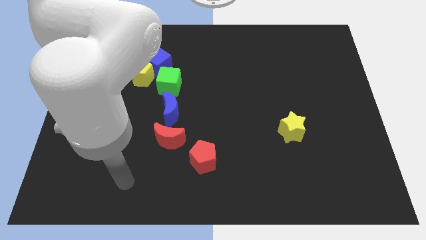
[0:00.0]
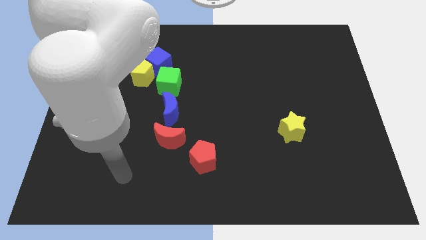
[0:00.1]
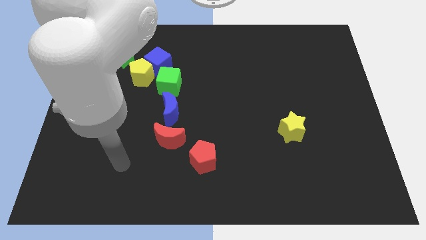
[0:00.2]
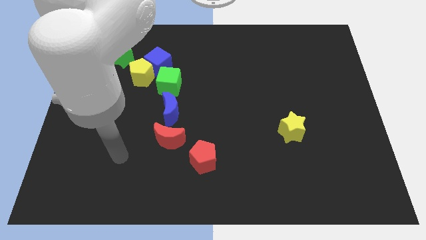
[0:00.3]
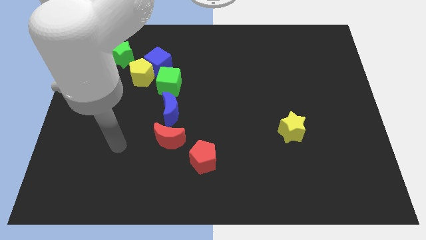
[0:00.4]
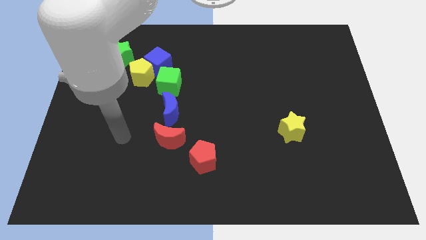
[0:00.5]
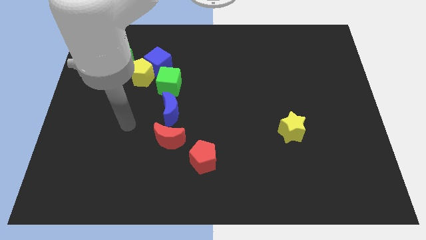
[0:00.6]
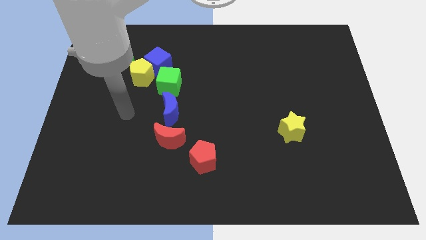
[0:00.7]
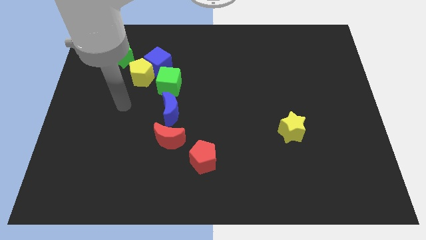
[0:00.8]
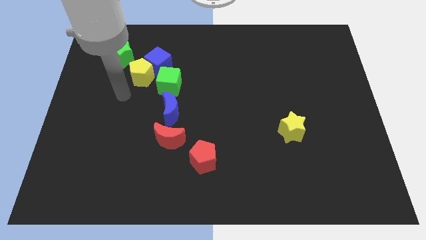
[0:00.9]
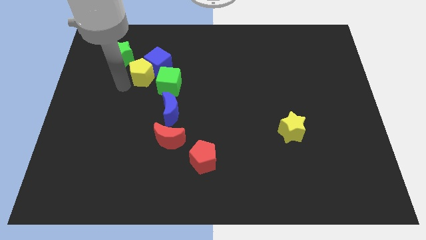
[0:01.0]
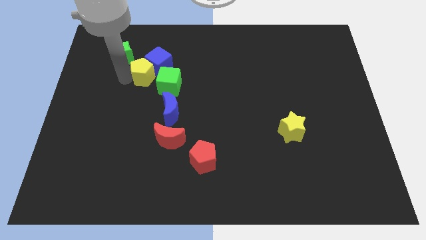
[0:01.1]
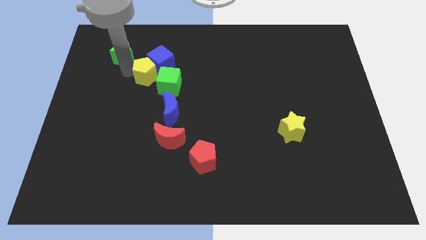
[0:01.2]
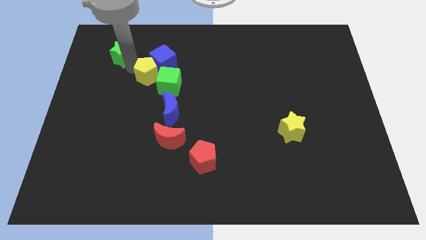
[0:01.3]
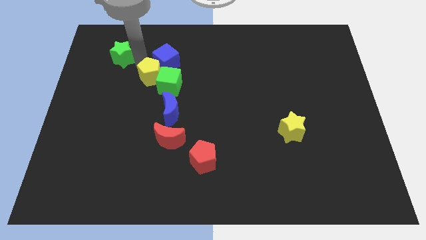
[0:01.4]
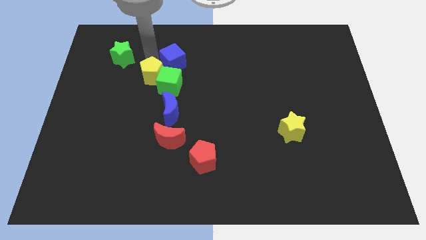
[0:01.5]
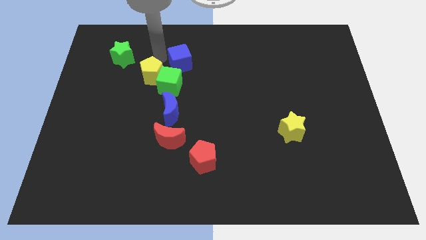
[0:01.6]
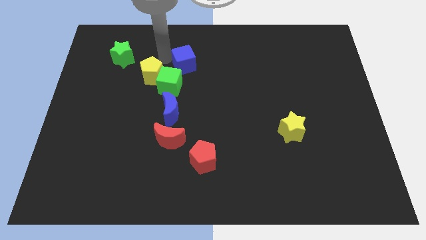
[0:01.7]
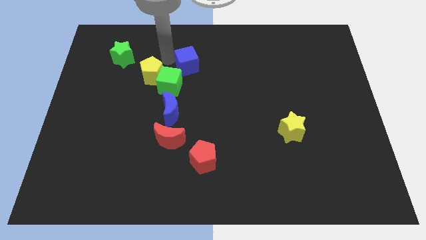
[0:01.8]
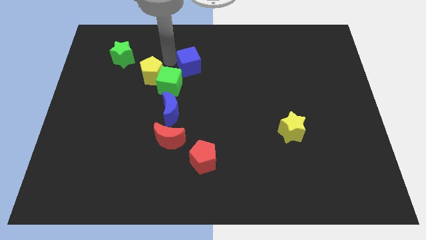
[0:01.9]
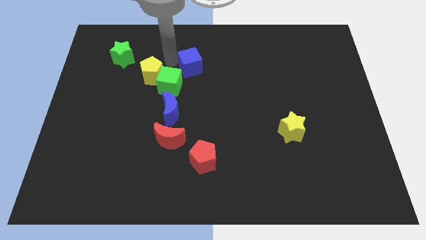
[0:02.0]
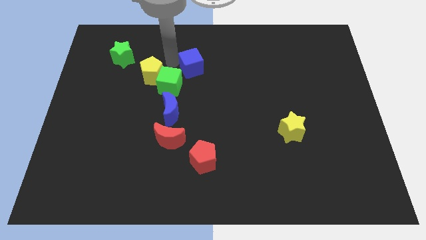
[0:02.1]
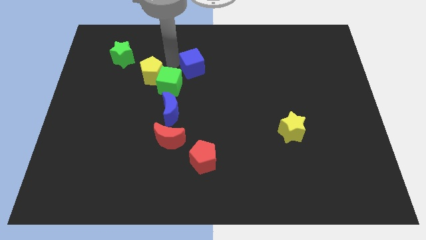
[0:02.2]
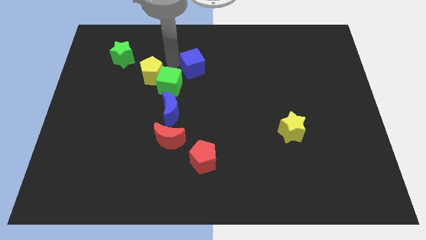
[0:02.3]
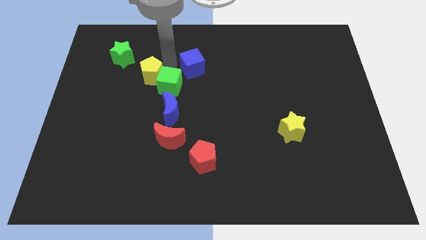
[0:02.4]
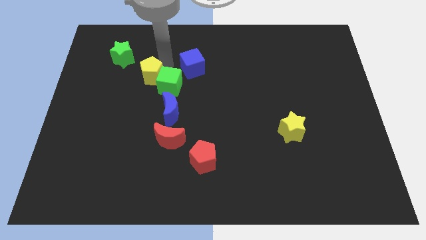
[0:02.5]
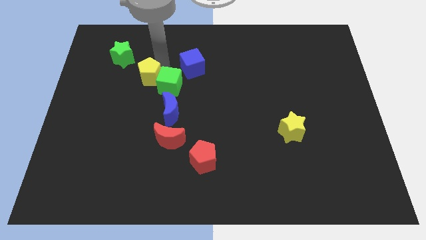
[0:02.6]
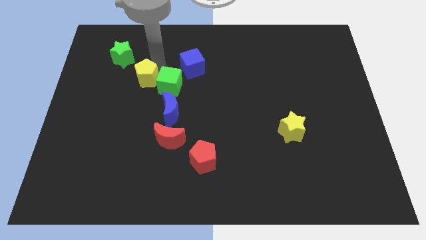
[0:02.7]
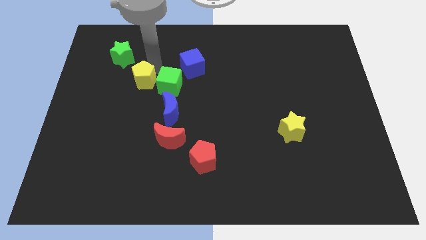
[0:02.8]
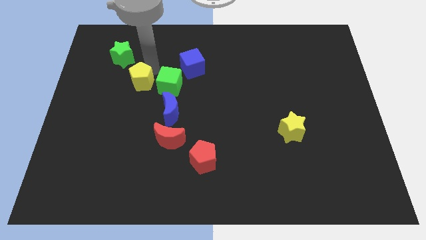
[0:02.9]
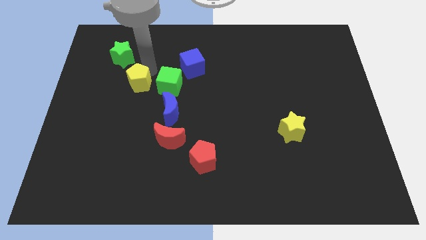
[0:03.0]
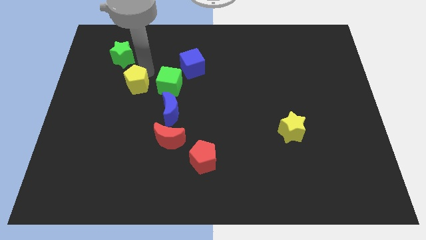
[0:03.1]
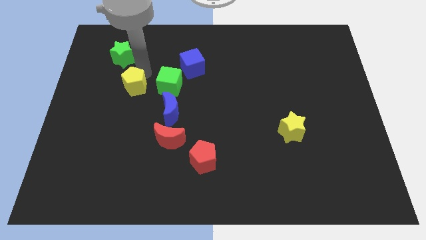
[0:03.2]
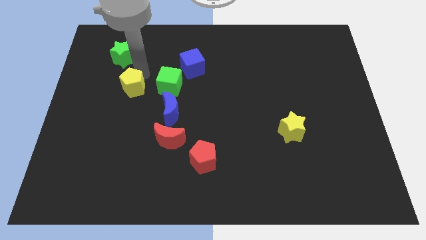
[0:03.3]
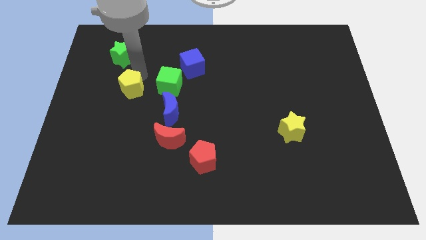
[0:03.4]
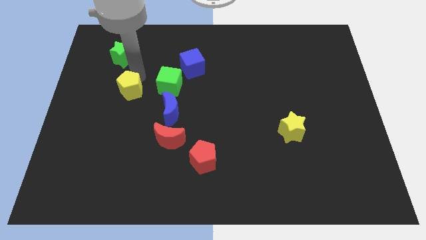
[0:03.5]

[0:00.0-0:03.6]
move the yellow pentagon away from the group

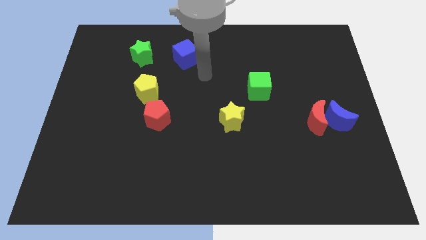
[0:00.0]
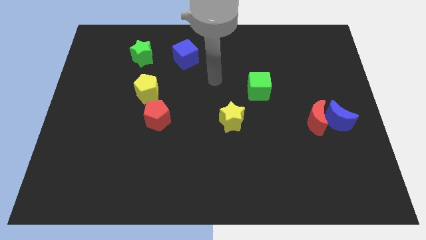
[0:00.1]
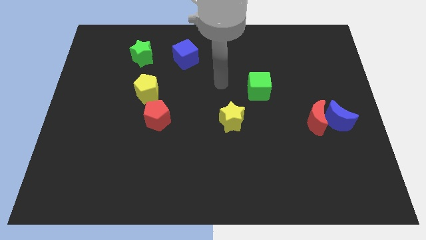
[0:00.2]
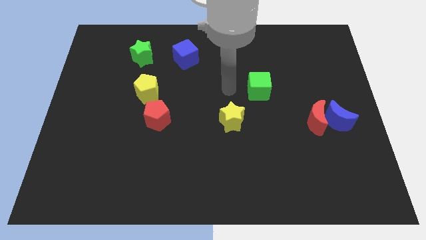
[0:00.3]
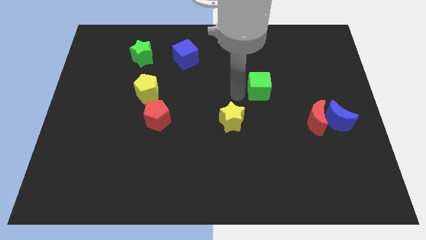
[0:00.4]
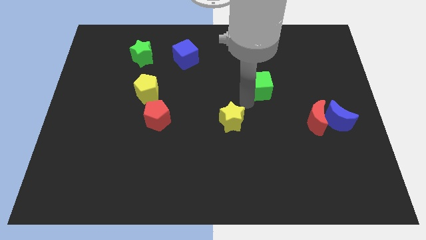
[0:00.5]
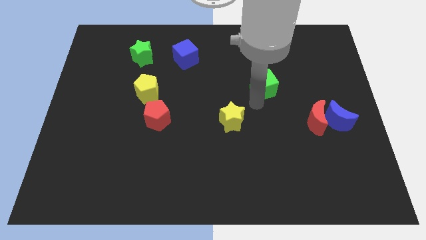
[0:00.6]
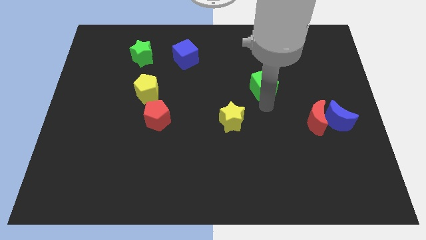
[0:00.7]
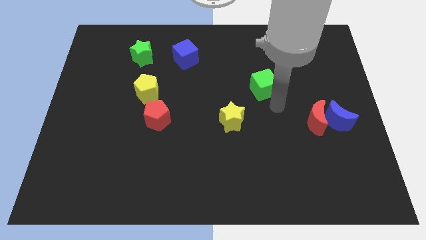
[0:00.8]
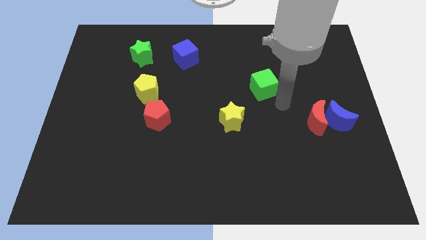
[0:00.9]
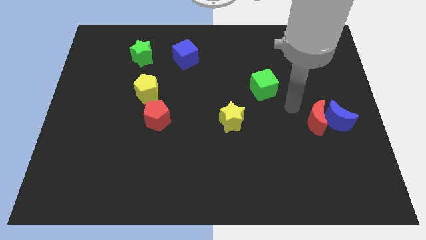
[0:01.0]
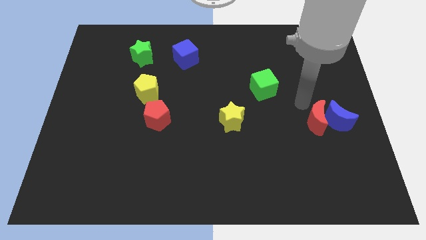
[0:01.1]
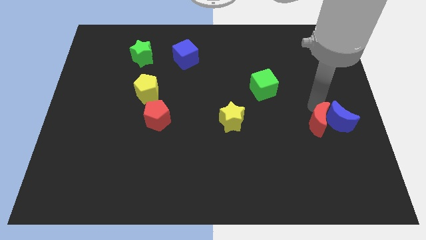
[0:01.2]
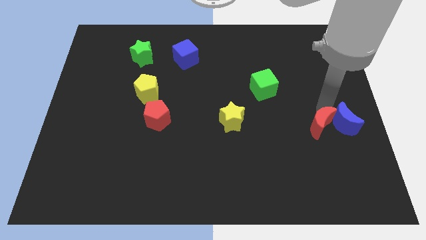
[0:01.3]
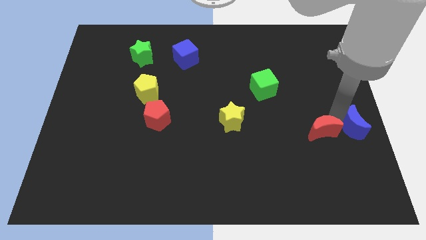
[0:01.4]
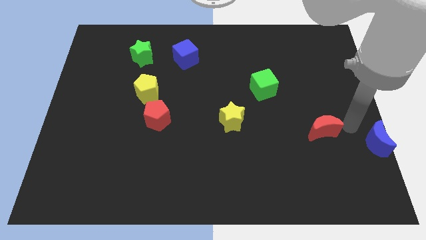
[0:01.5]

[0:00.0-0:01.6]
pull the red moon apart from the blue moon

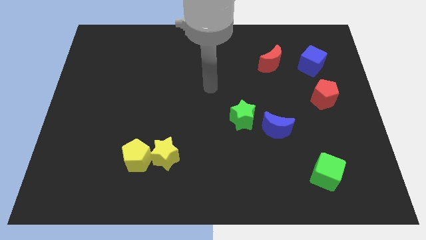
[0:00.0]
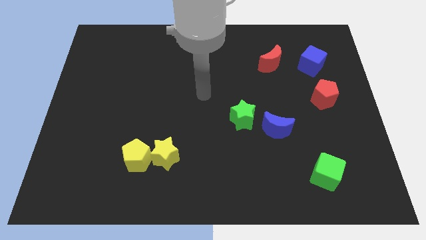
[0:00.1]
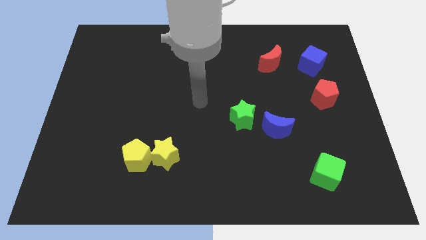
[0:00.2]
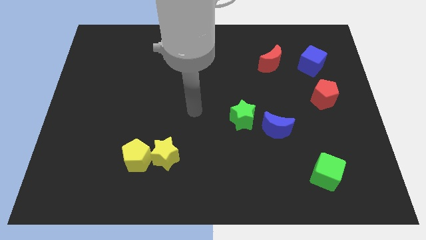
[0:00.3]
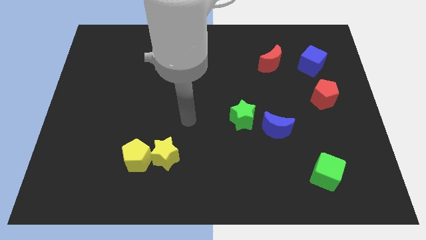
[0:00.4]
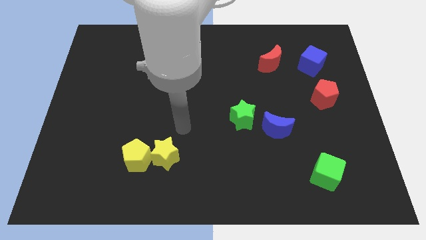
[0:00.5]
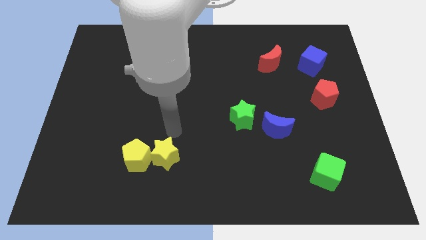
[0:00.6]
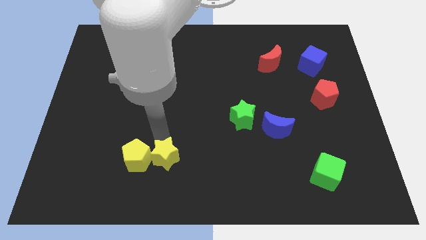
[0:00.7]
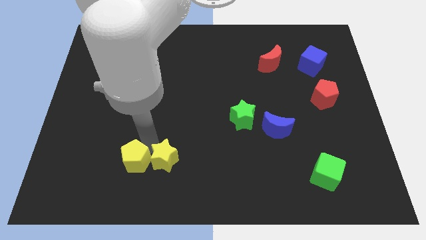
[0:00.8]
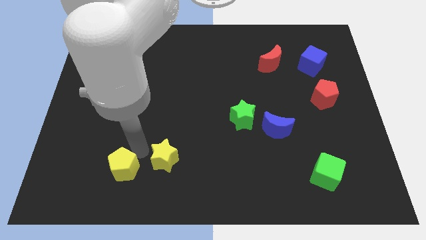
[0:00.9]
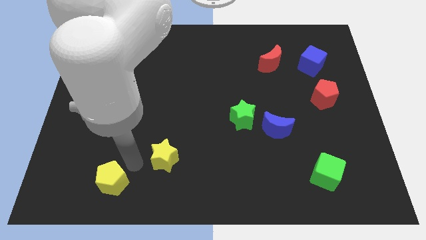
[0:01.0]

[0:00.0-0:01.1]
move the yellow star away from the yellow pentagon

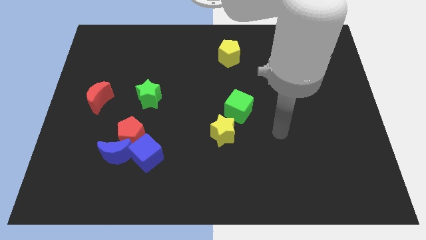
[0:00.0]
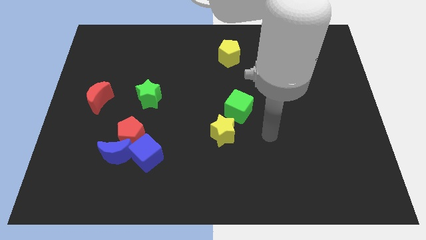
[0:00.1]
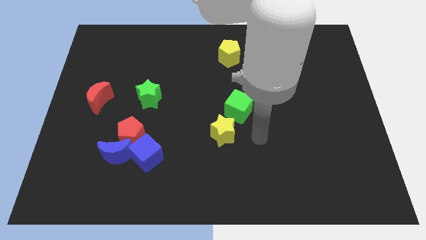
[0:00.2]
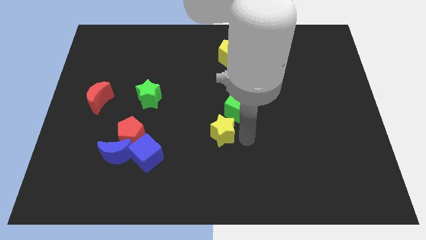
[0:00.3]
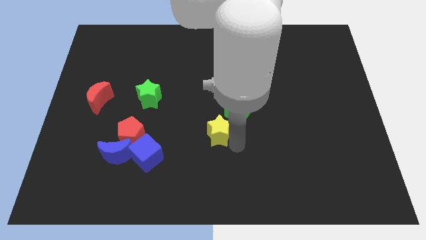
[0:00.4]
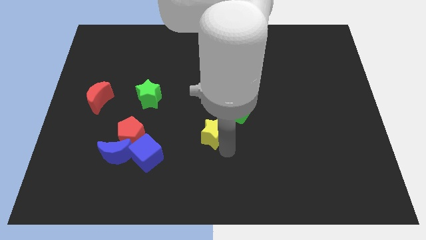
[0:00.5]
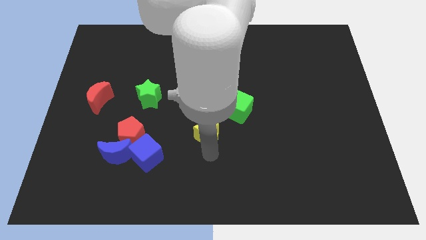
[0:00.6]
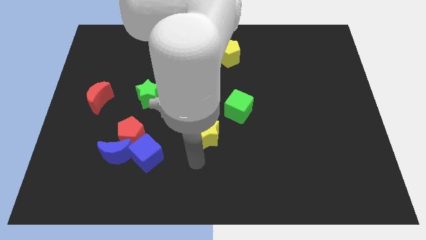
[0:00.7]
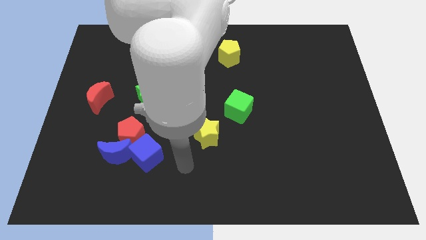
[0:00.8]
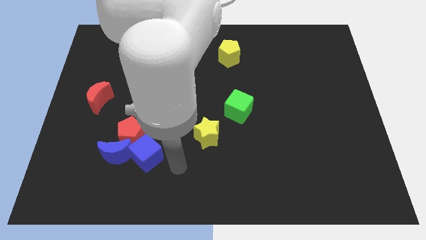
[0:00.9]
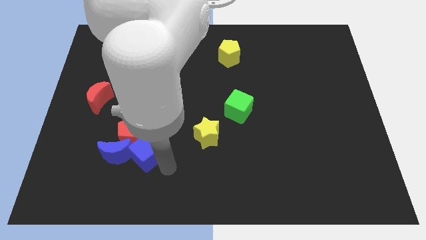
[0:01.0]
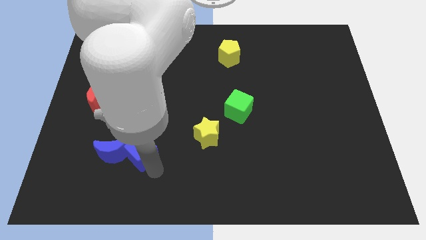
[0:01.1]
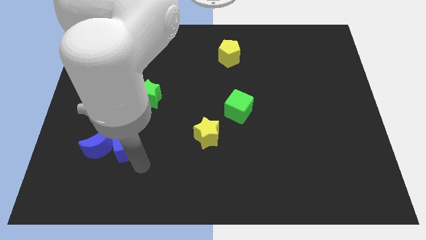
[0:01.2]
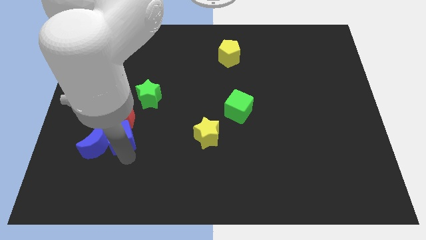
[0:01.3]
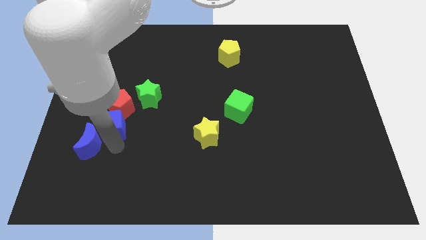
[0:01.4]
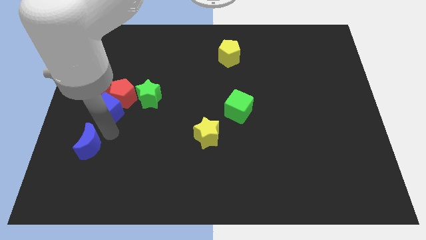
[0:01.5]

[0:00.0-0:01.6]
separate the red pentagon from the blue moon and blue cube

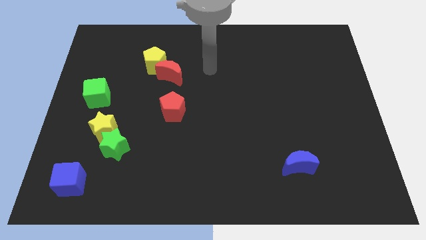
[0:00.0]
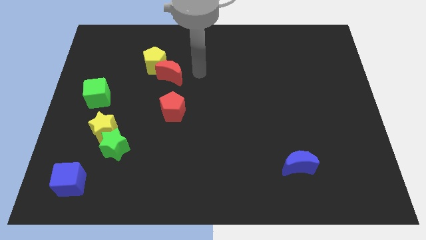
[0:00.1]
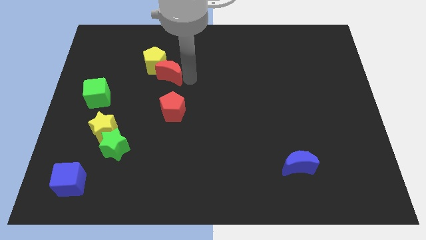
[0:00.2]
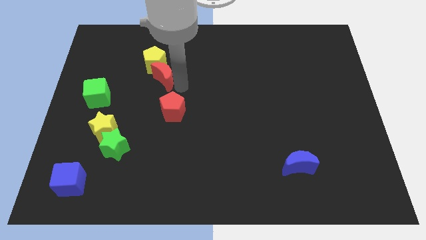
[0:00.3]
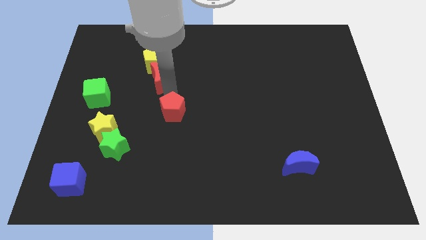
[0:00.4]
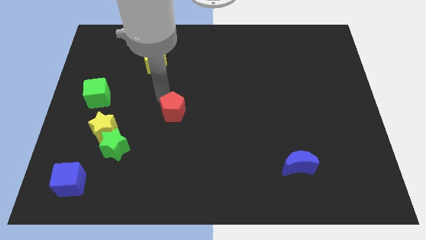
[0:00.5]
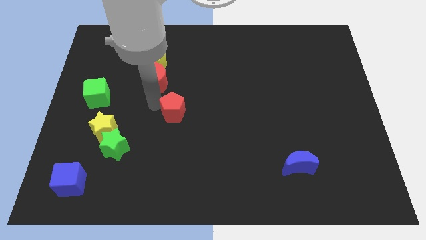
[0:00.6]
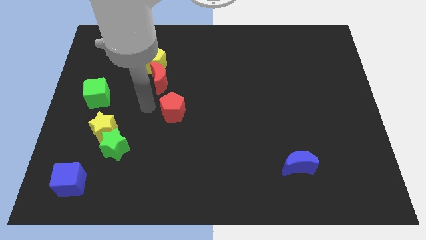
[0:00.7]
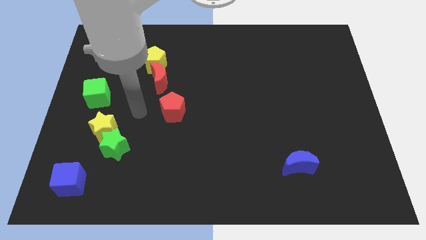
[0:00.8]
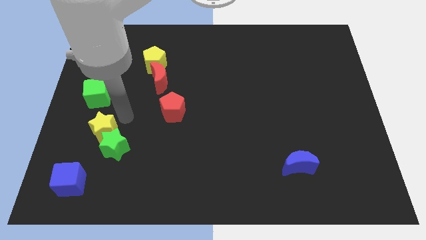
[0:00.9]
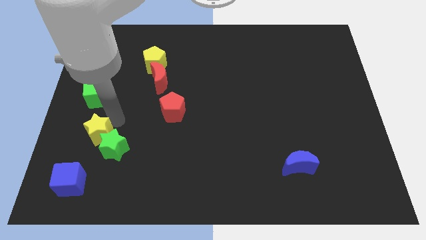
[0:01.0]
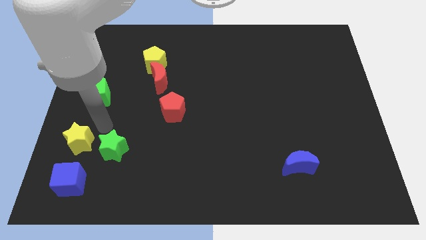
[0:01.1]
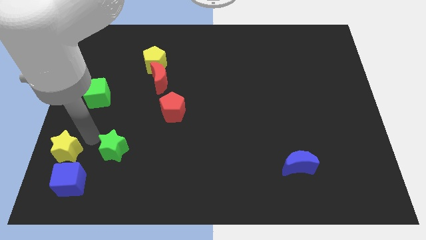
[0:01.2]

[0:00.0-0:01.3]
move the green star away from the yellow star
